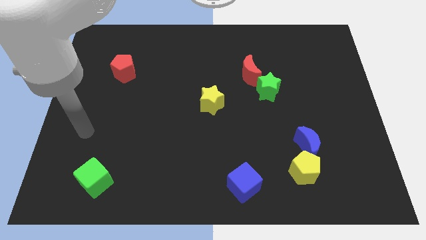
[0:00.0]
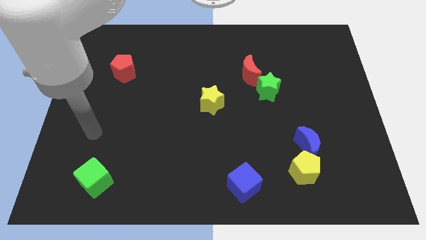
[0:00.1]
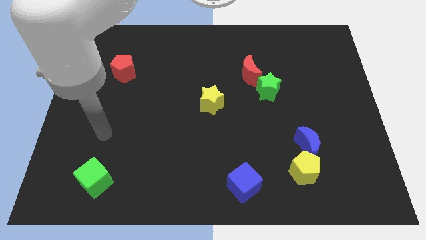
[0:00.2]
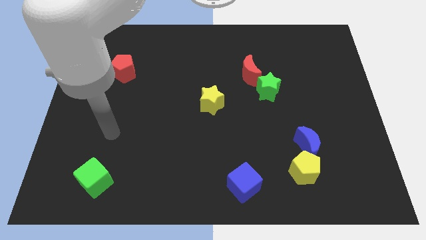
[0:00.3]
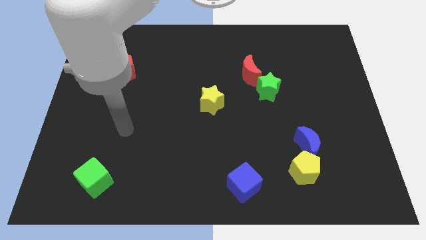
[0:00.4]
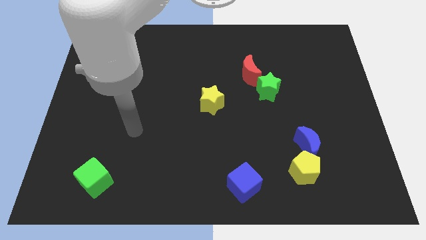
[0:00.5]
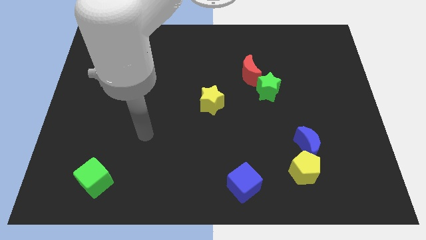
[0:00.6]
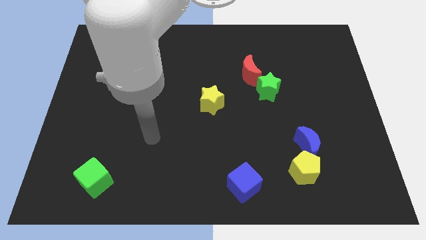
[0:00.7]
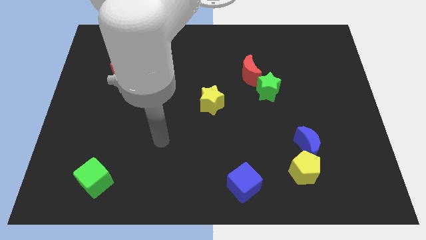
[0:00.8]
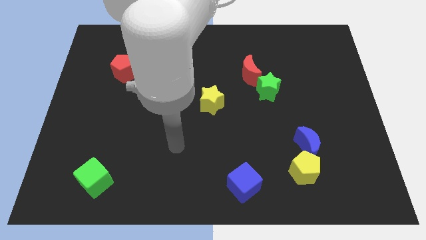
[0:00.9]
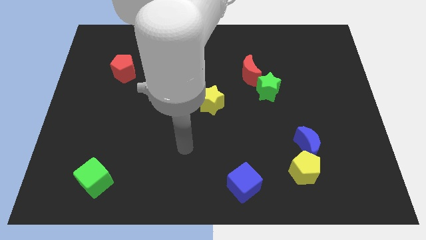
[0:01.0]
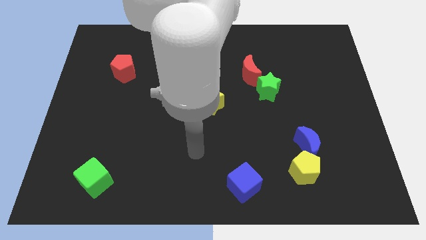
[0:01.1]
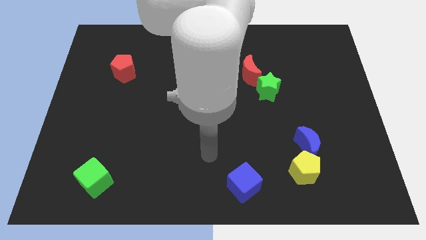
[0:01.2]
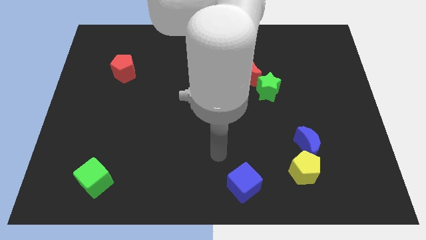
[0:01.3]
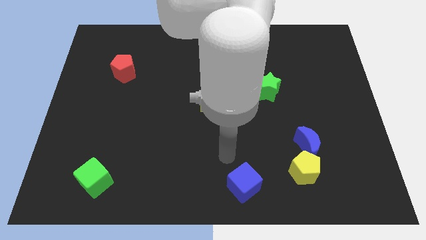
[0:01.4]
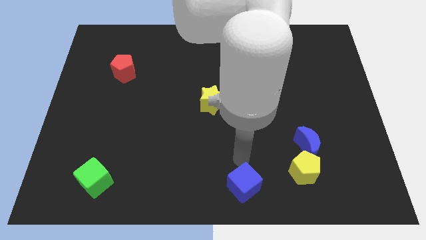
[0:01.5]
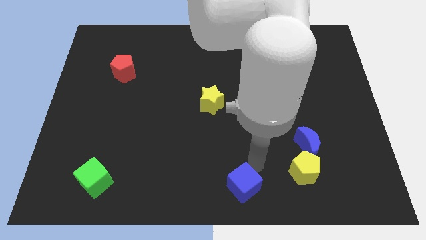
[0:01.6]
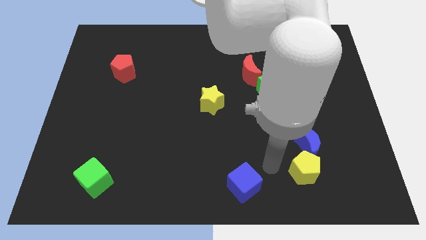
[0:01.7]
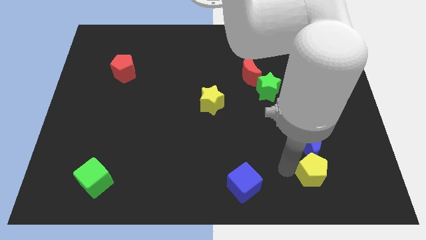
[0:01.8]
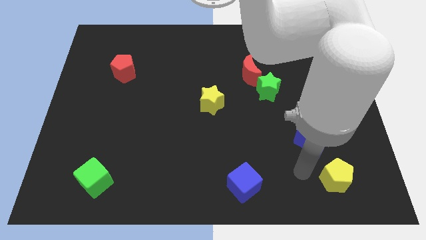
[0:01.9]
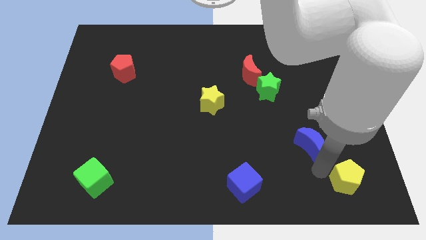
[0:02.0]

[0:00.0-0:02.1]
move the blue moon away from the yellow pentagon

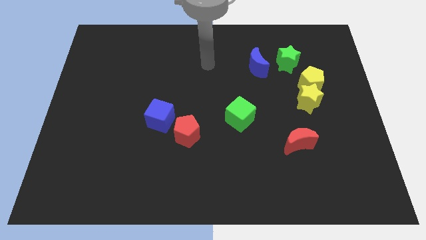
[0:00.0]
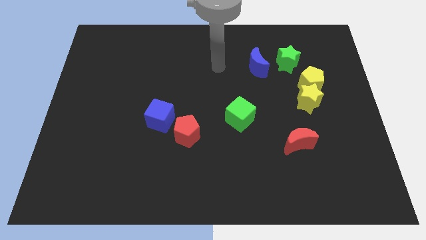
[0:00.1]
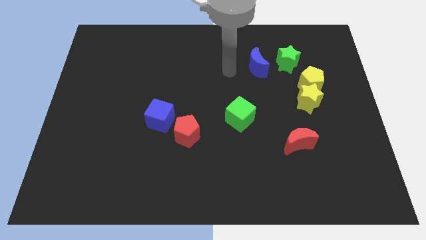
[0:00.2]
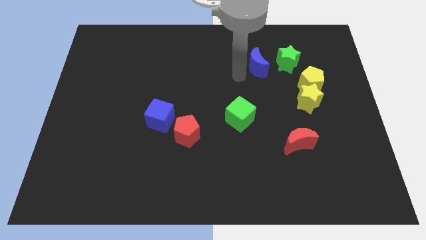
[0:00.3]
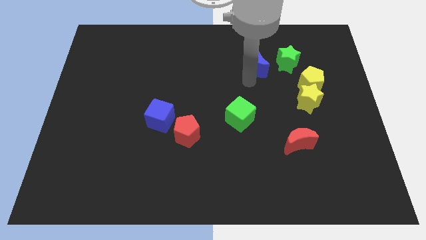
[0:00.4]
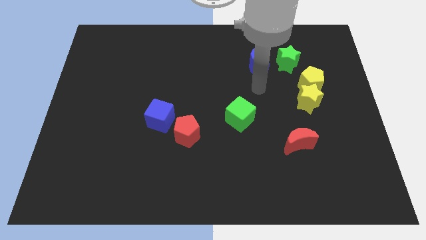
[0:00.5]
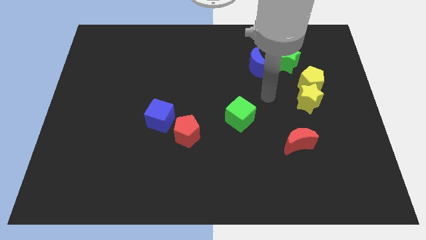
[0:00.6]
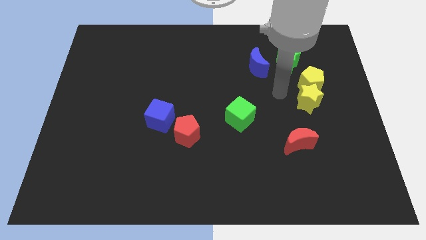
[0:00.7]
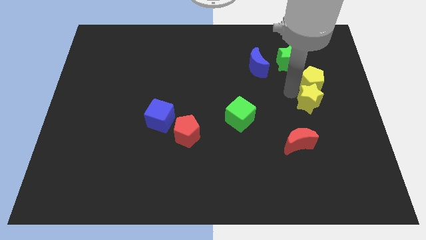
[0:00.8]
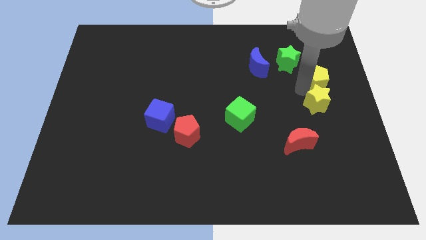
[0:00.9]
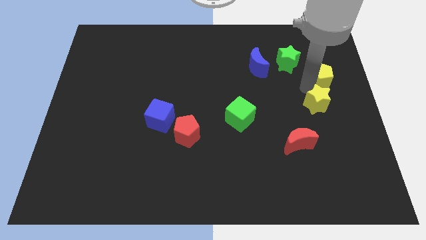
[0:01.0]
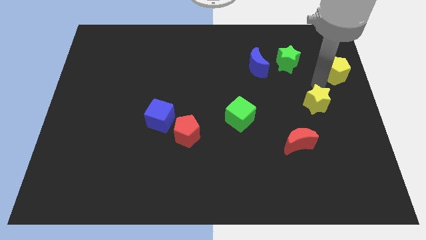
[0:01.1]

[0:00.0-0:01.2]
separate the yellow star from the yellow pentagon

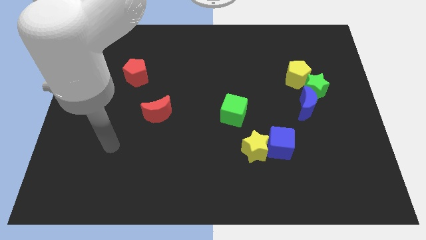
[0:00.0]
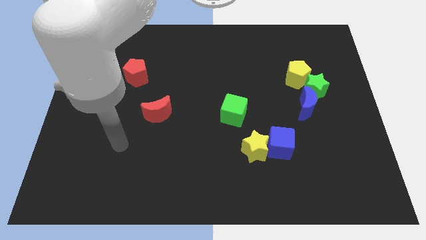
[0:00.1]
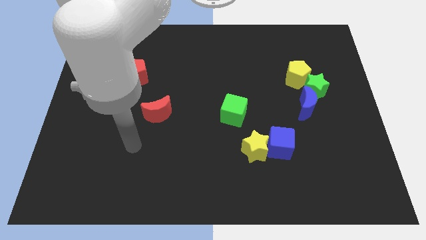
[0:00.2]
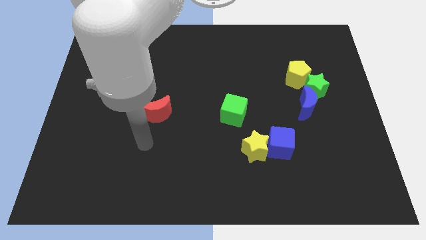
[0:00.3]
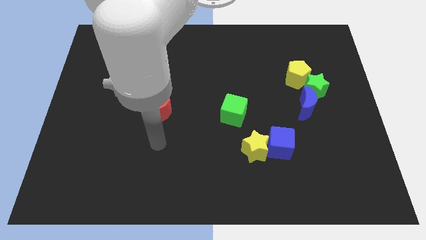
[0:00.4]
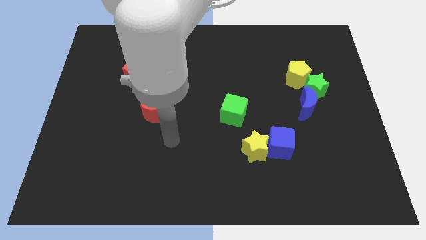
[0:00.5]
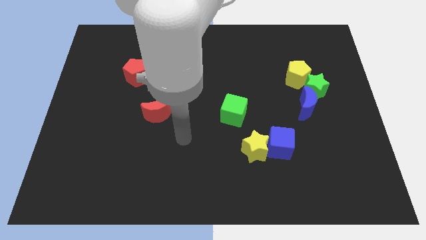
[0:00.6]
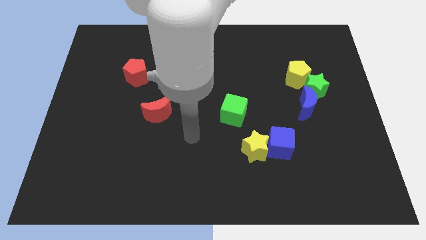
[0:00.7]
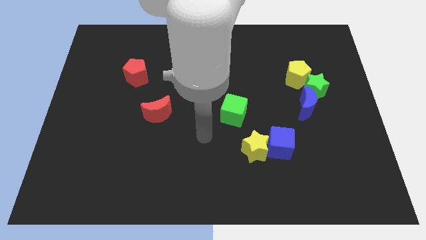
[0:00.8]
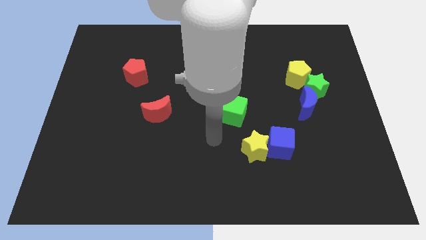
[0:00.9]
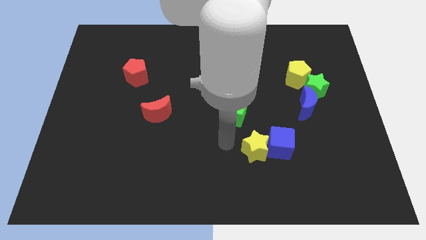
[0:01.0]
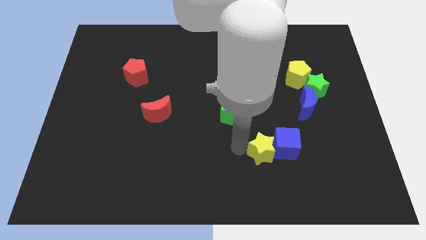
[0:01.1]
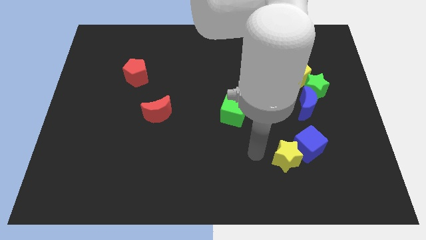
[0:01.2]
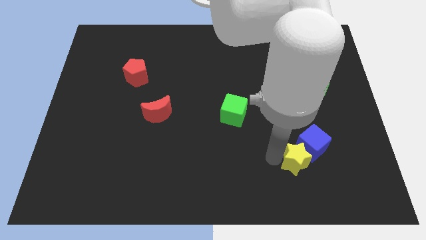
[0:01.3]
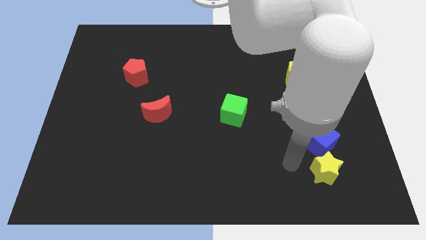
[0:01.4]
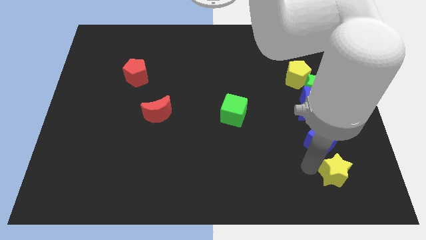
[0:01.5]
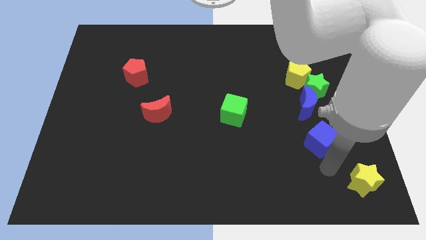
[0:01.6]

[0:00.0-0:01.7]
separate the blue cube from the yellow star

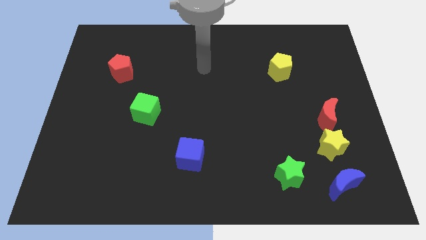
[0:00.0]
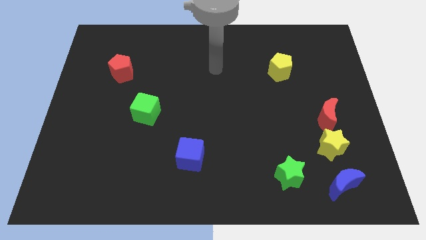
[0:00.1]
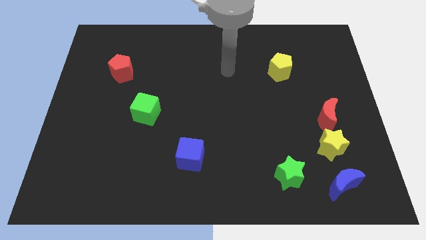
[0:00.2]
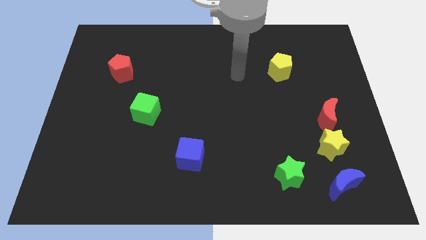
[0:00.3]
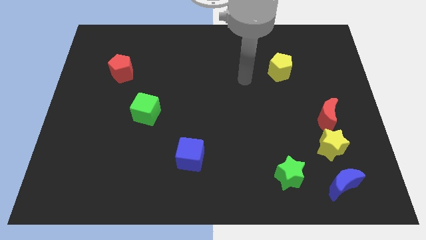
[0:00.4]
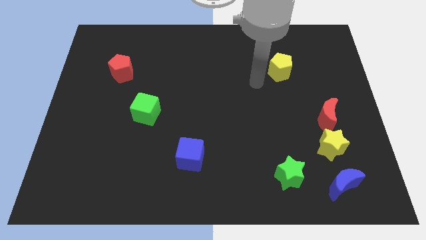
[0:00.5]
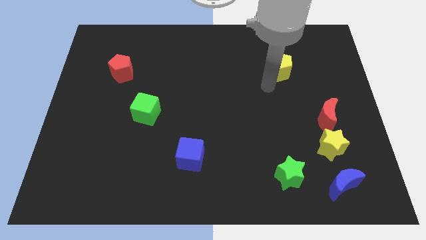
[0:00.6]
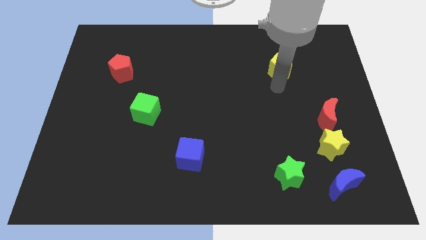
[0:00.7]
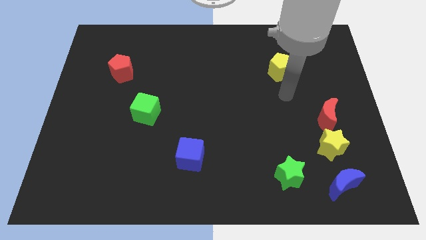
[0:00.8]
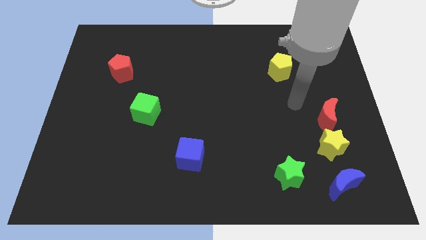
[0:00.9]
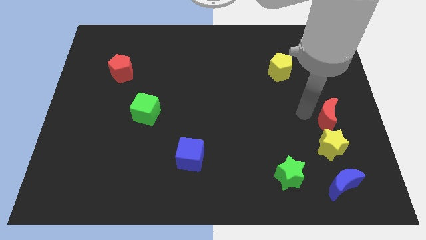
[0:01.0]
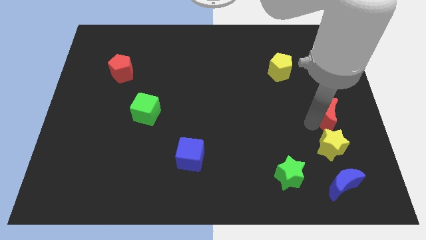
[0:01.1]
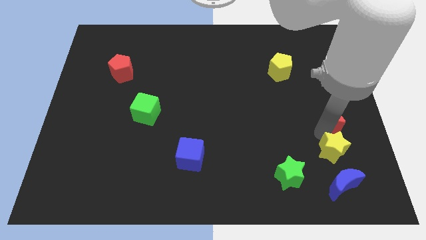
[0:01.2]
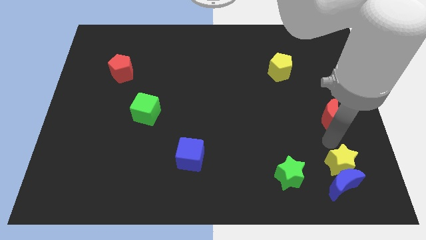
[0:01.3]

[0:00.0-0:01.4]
separate the red moon from the yellow star

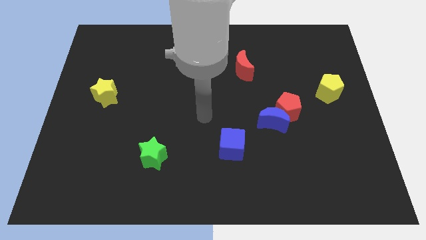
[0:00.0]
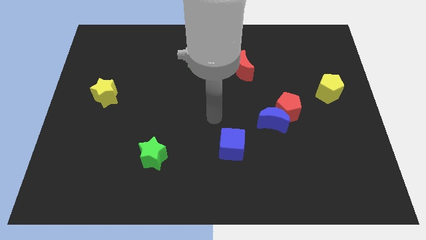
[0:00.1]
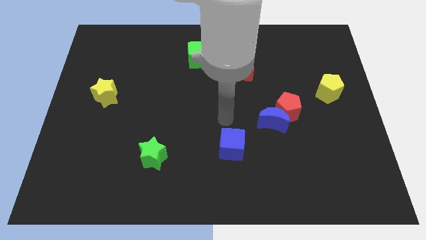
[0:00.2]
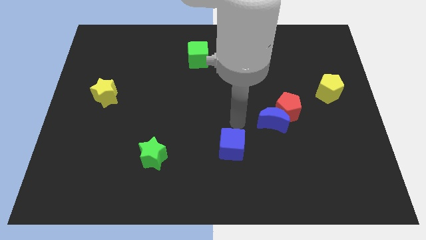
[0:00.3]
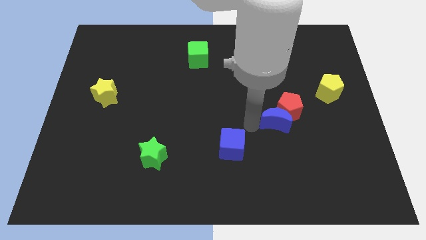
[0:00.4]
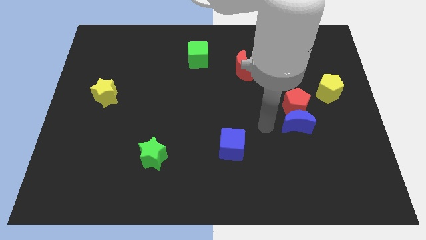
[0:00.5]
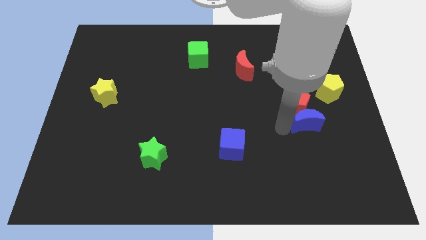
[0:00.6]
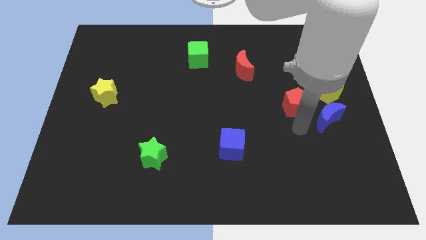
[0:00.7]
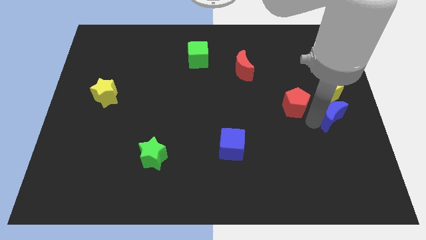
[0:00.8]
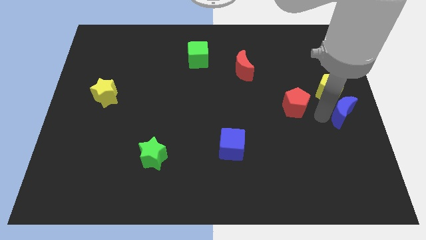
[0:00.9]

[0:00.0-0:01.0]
pull the red pentagon apart from the blue moon

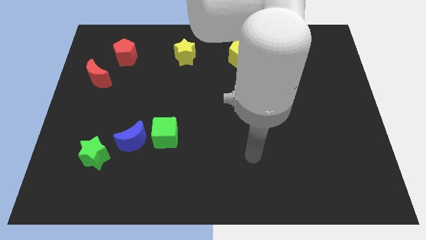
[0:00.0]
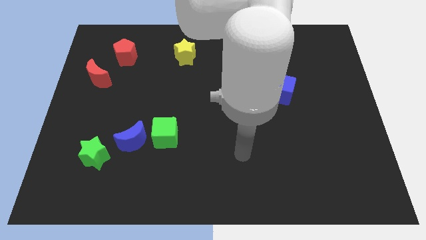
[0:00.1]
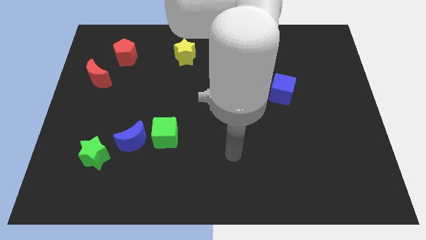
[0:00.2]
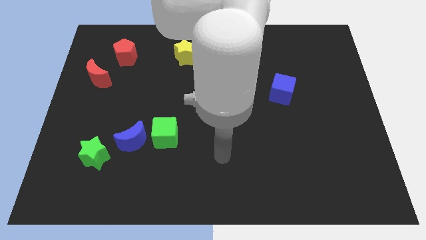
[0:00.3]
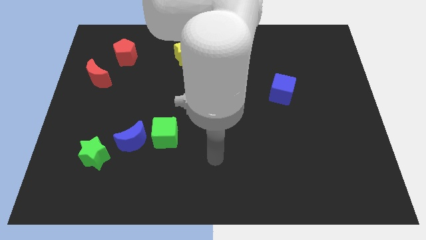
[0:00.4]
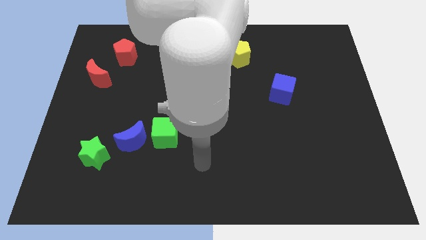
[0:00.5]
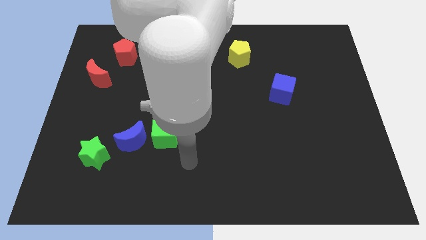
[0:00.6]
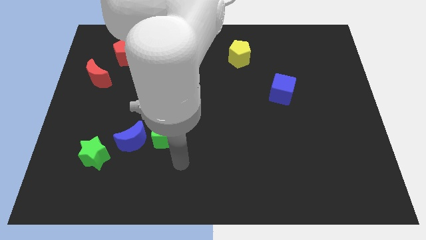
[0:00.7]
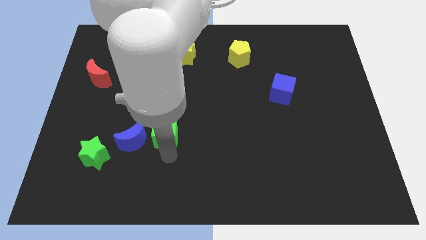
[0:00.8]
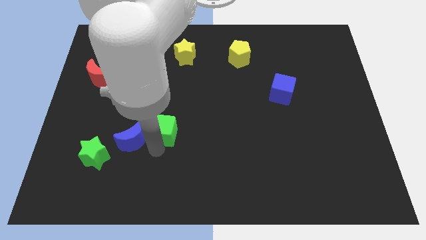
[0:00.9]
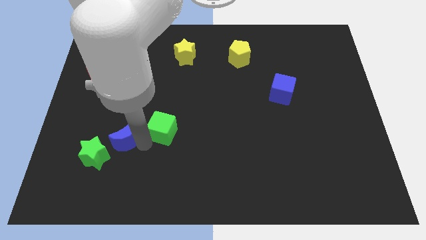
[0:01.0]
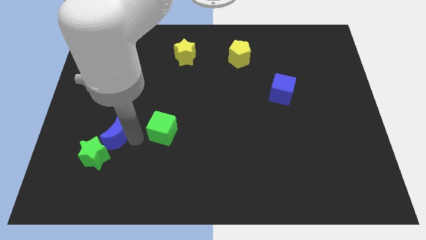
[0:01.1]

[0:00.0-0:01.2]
move the green cube away from the blue moon

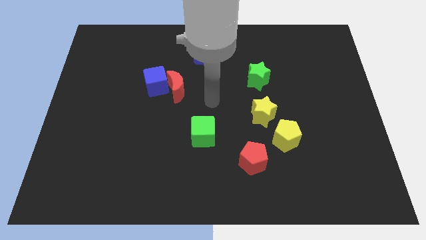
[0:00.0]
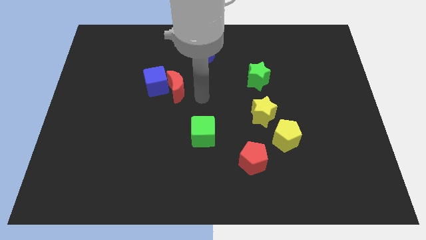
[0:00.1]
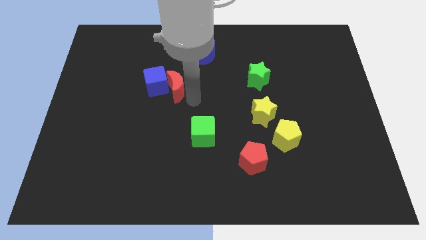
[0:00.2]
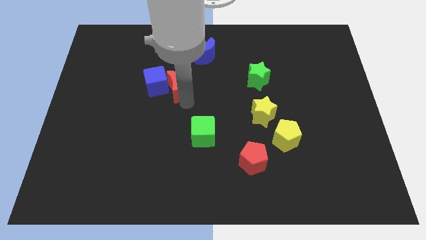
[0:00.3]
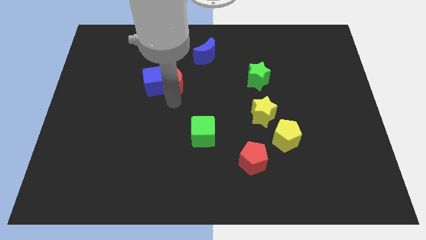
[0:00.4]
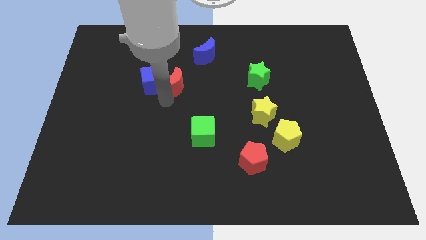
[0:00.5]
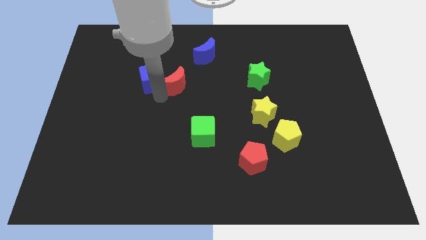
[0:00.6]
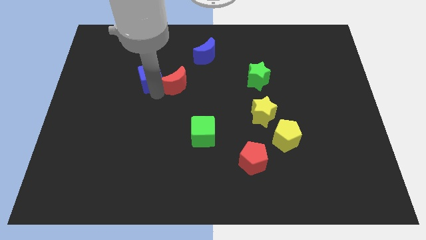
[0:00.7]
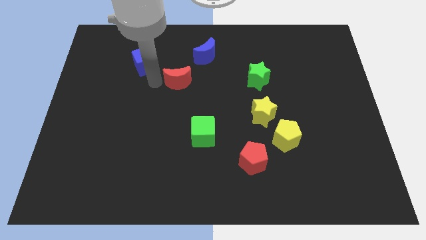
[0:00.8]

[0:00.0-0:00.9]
pull the red moon apart from the blue cube
